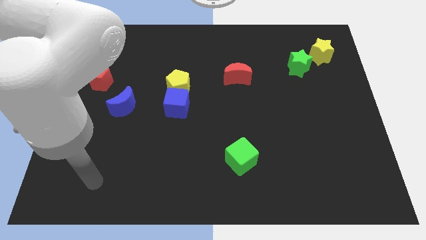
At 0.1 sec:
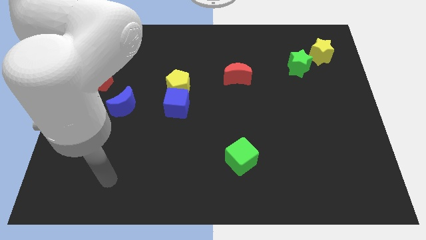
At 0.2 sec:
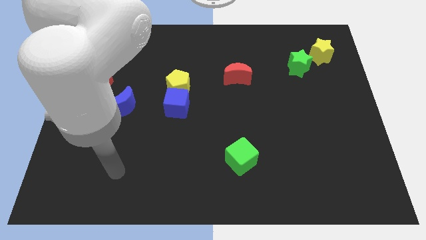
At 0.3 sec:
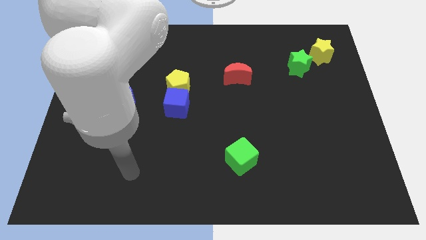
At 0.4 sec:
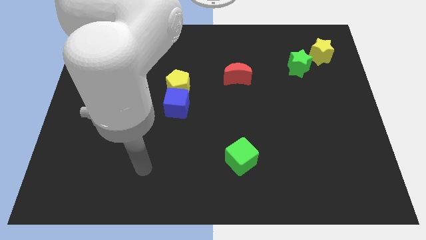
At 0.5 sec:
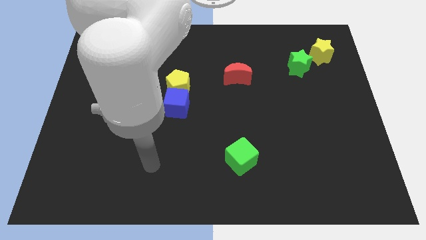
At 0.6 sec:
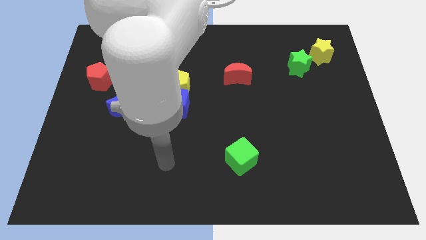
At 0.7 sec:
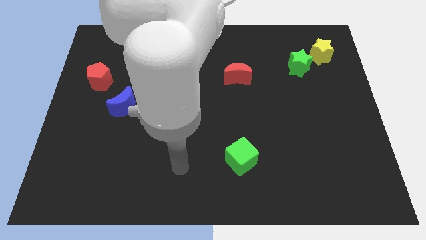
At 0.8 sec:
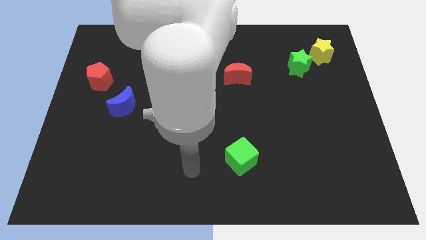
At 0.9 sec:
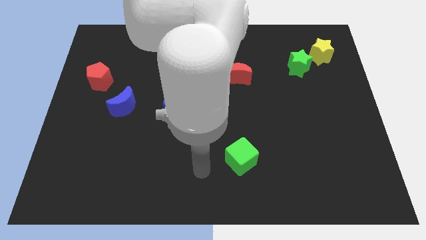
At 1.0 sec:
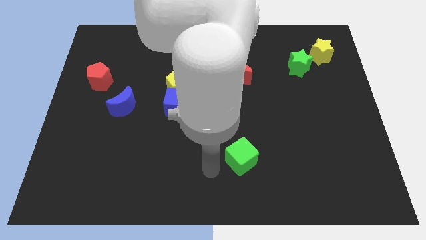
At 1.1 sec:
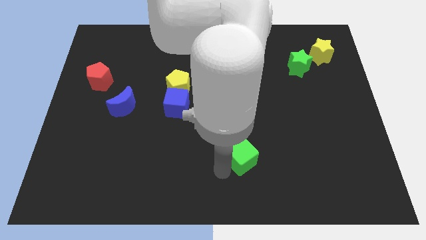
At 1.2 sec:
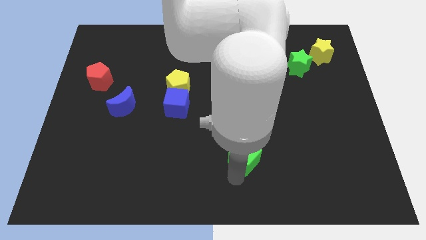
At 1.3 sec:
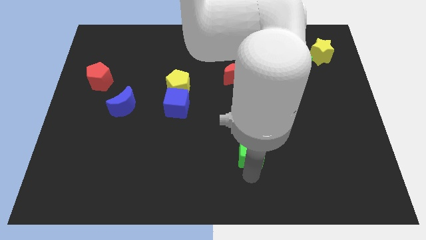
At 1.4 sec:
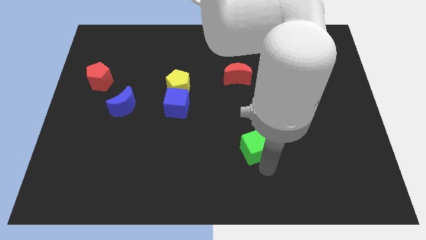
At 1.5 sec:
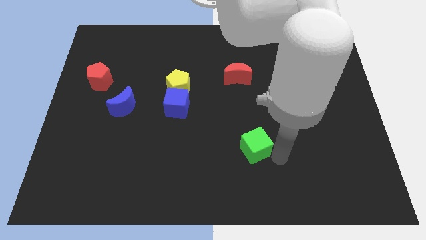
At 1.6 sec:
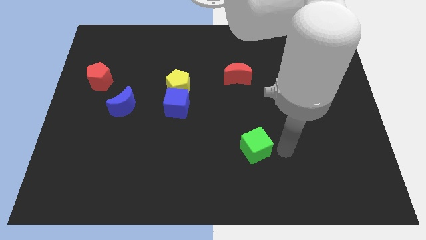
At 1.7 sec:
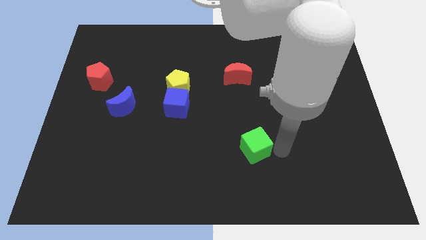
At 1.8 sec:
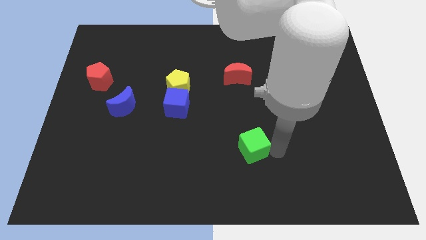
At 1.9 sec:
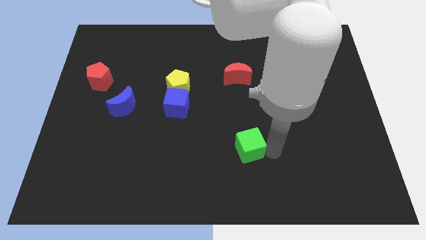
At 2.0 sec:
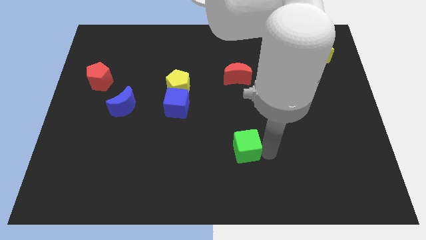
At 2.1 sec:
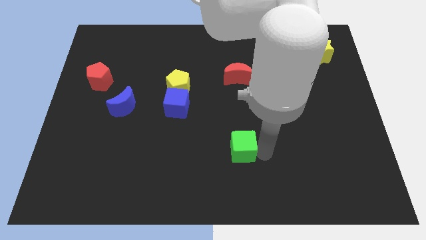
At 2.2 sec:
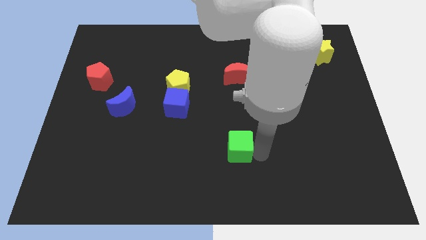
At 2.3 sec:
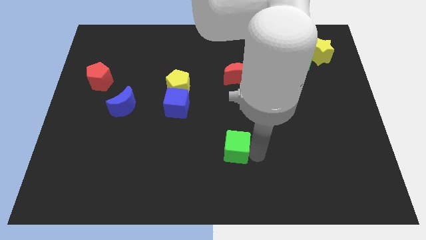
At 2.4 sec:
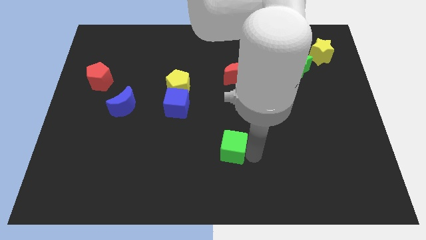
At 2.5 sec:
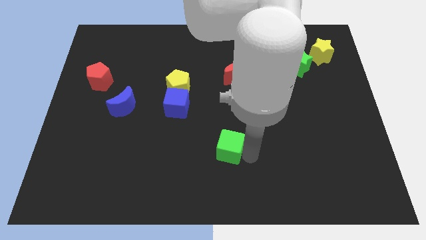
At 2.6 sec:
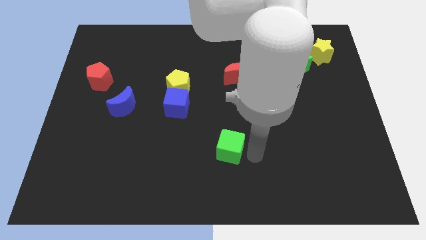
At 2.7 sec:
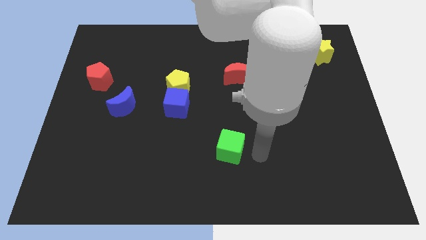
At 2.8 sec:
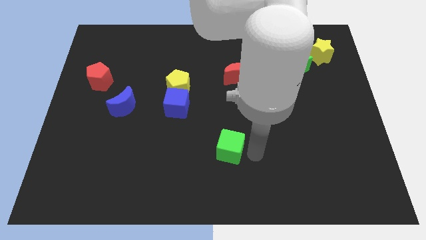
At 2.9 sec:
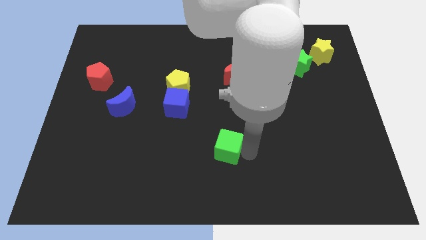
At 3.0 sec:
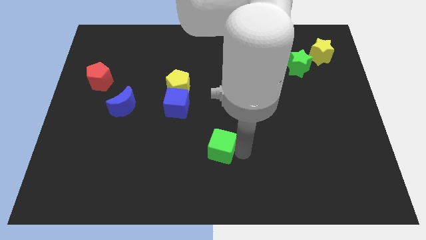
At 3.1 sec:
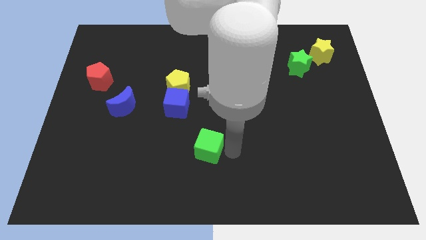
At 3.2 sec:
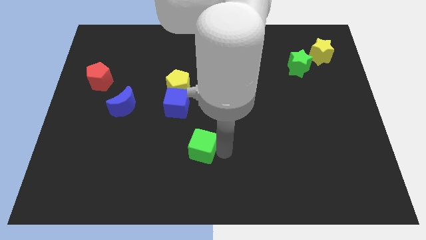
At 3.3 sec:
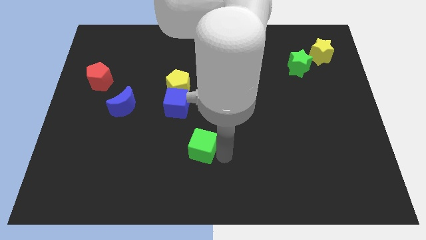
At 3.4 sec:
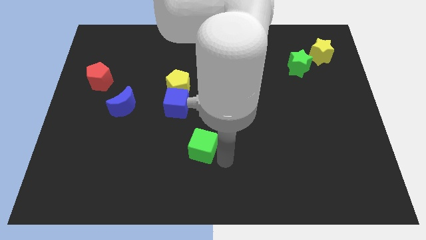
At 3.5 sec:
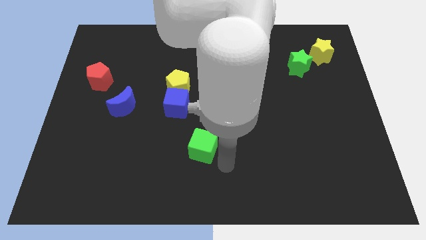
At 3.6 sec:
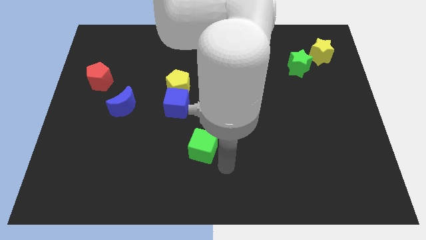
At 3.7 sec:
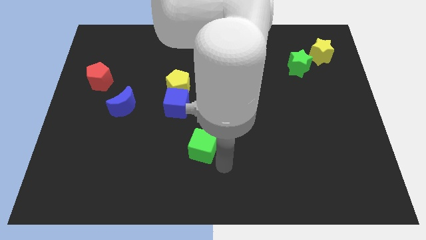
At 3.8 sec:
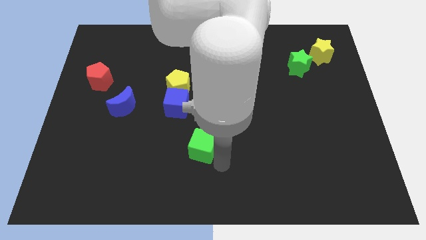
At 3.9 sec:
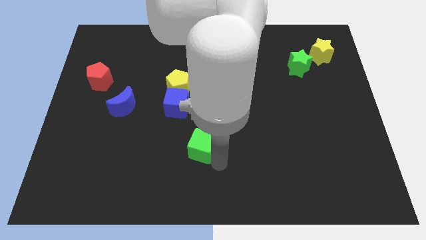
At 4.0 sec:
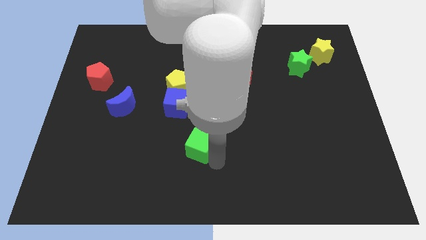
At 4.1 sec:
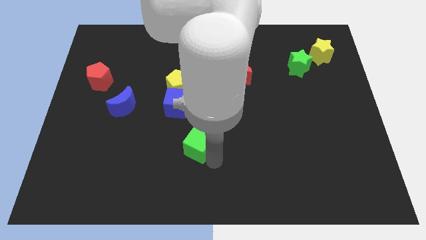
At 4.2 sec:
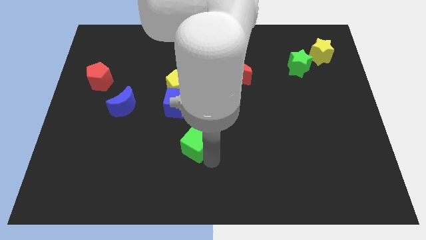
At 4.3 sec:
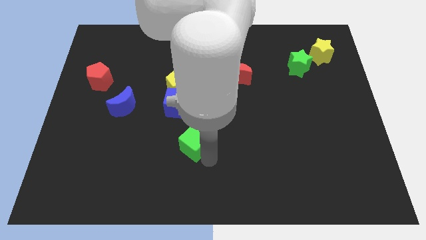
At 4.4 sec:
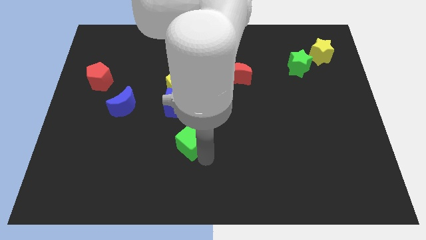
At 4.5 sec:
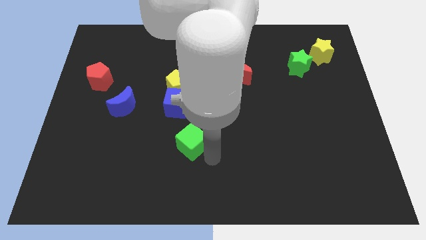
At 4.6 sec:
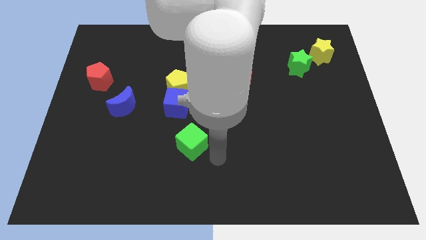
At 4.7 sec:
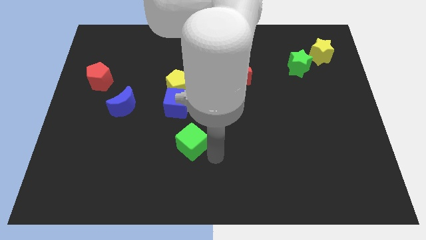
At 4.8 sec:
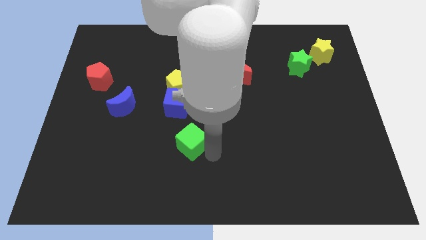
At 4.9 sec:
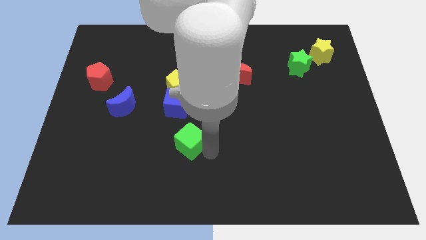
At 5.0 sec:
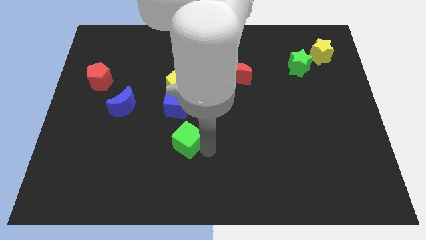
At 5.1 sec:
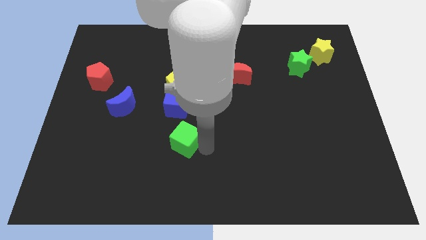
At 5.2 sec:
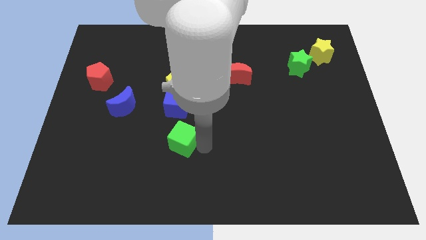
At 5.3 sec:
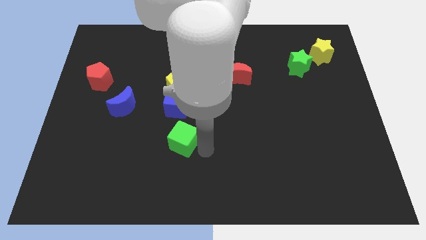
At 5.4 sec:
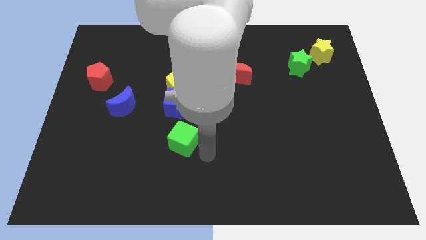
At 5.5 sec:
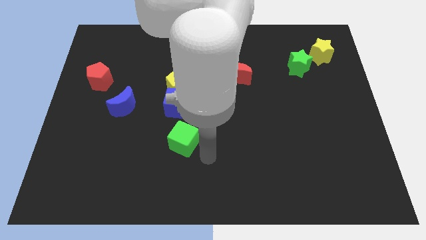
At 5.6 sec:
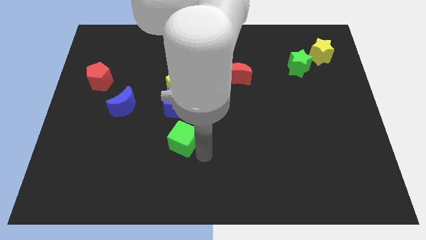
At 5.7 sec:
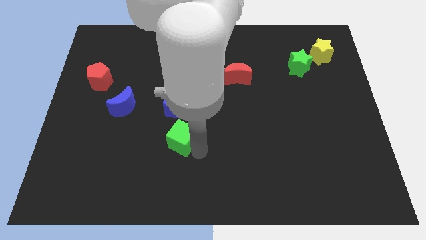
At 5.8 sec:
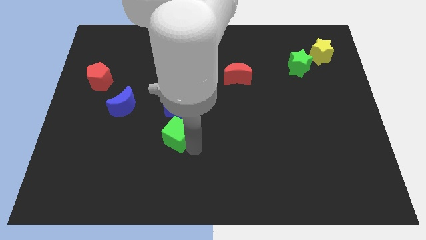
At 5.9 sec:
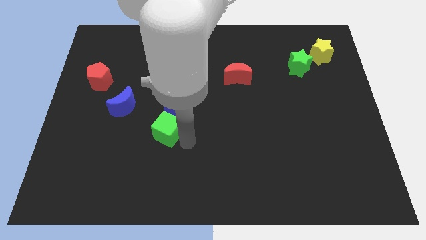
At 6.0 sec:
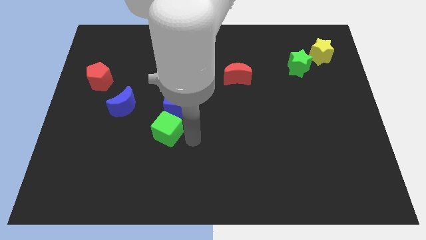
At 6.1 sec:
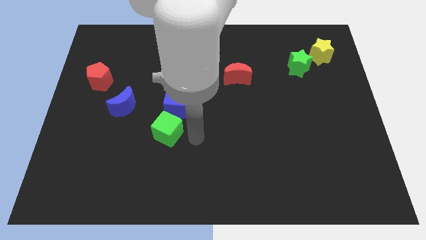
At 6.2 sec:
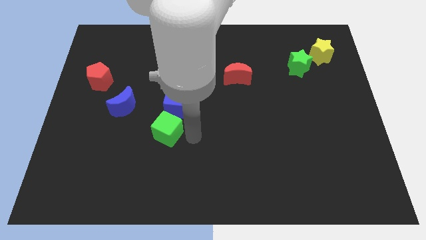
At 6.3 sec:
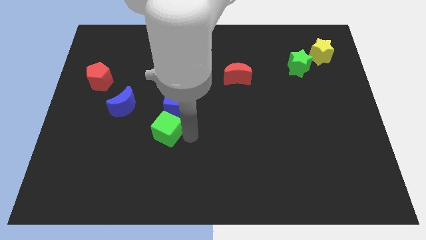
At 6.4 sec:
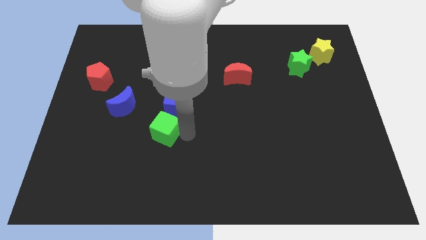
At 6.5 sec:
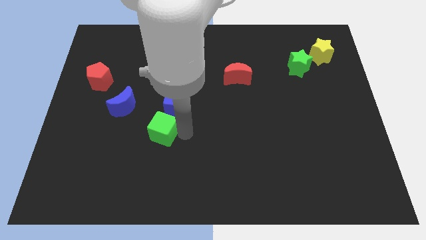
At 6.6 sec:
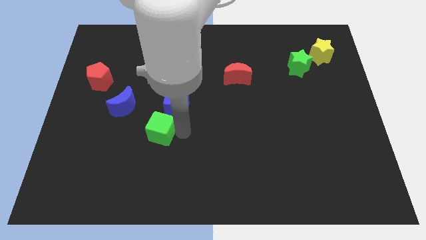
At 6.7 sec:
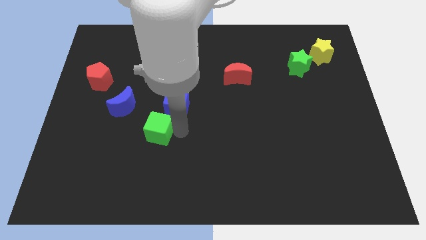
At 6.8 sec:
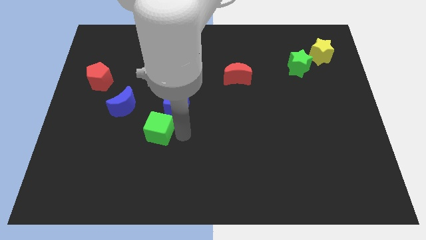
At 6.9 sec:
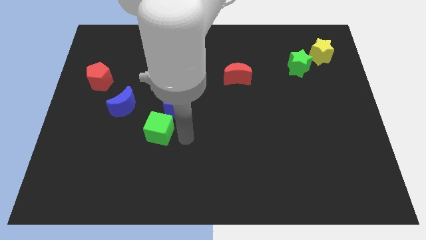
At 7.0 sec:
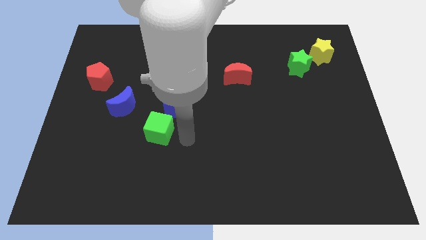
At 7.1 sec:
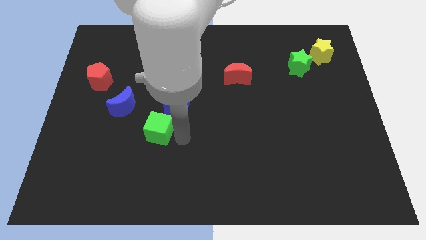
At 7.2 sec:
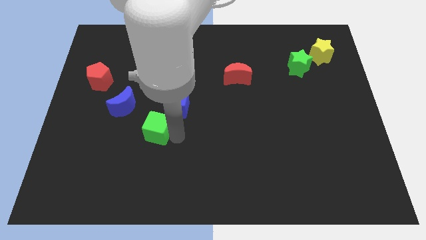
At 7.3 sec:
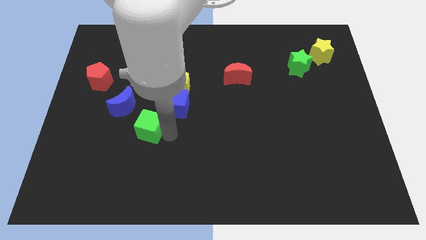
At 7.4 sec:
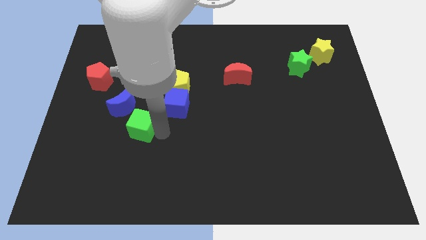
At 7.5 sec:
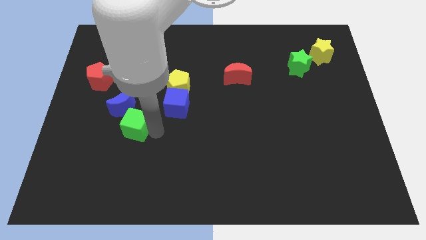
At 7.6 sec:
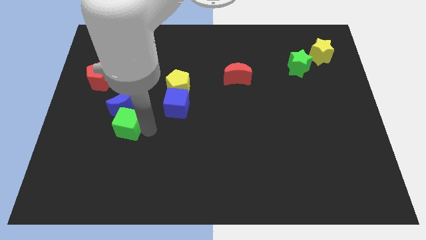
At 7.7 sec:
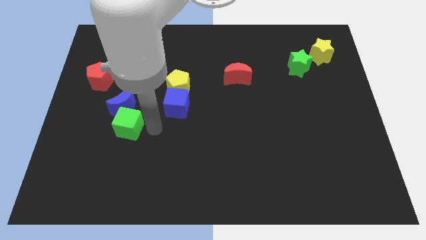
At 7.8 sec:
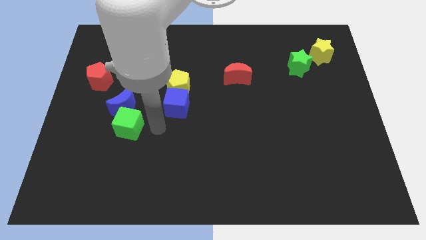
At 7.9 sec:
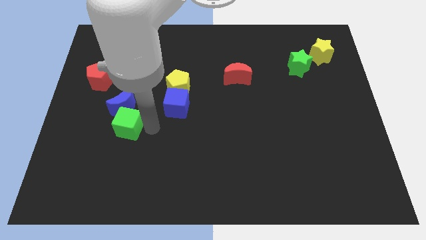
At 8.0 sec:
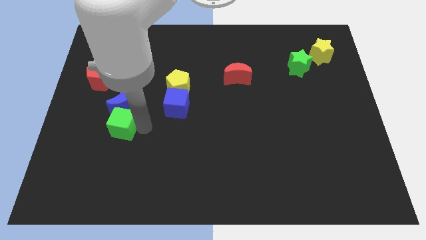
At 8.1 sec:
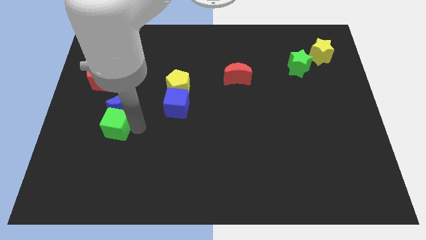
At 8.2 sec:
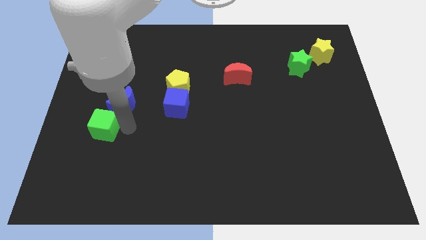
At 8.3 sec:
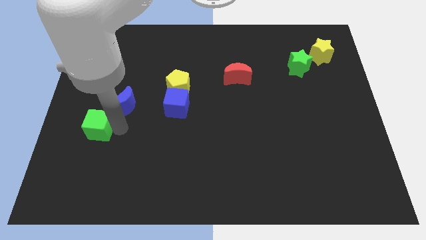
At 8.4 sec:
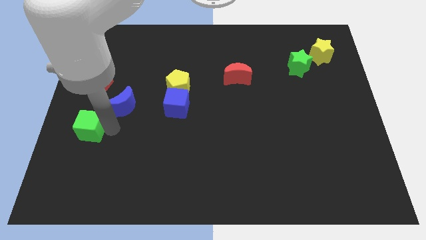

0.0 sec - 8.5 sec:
slide the green cube to the center left
